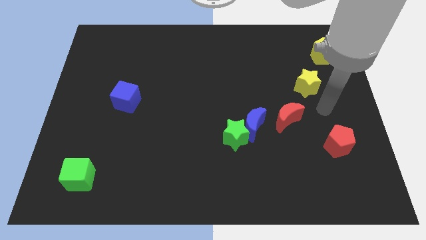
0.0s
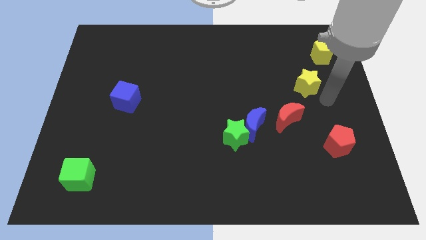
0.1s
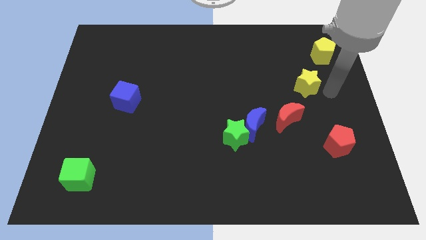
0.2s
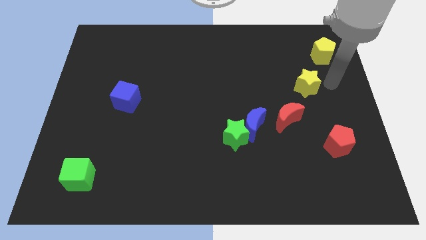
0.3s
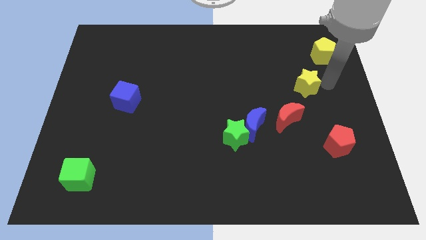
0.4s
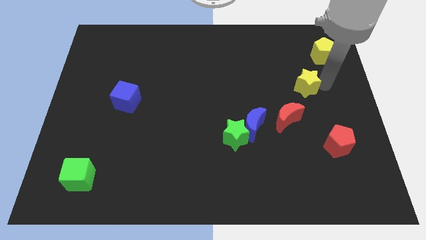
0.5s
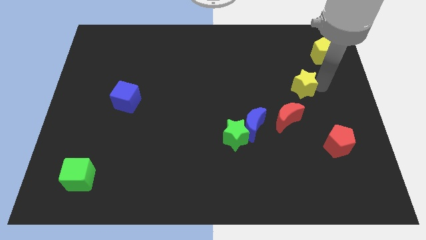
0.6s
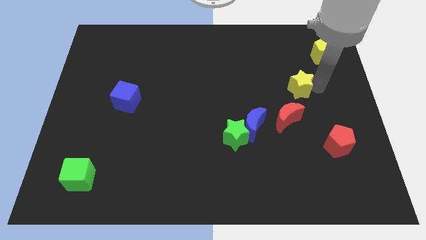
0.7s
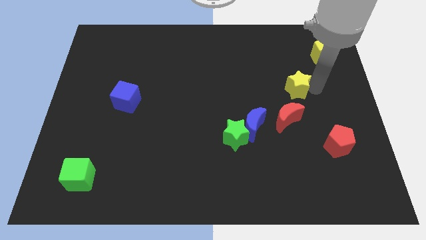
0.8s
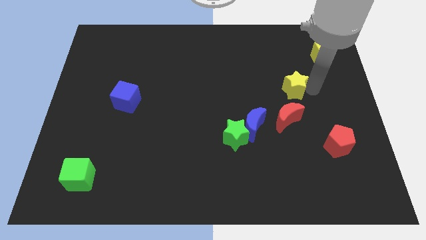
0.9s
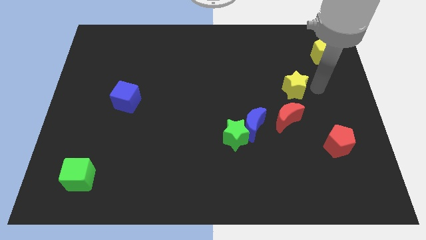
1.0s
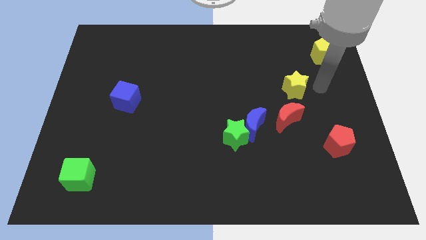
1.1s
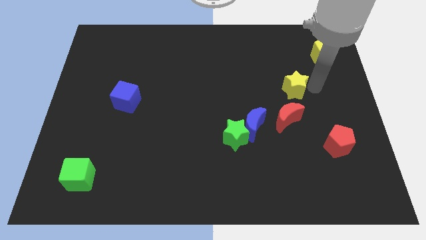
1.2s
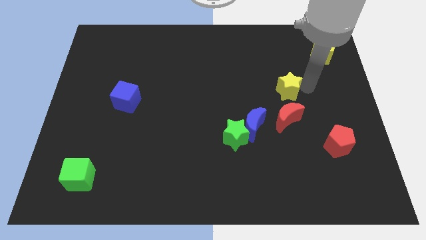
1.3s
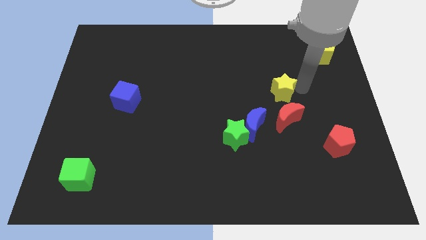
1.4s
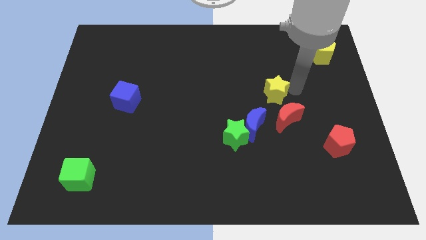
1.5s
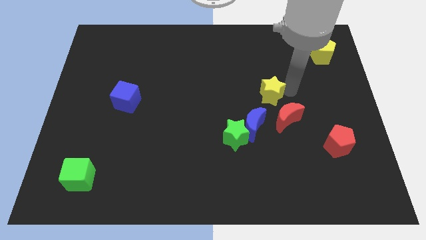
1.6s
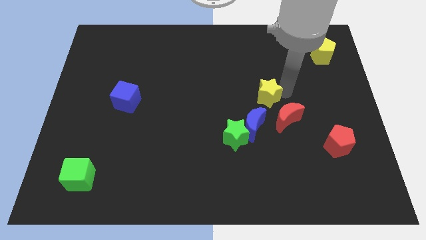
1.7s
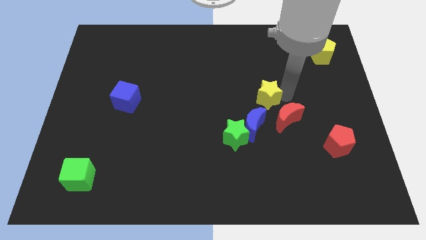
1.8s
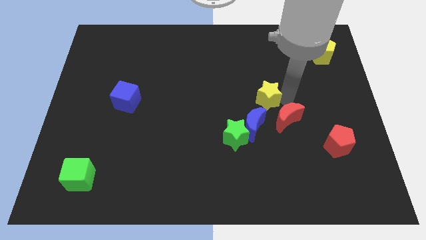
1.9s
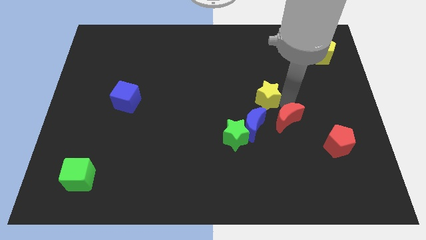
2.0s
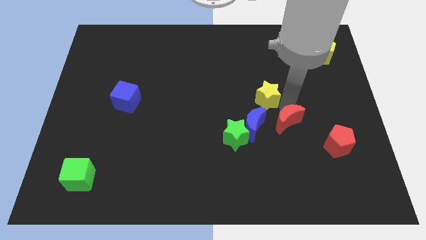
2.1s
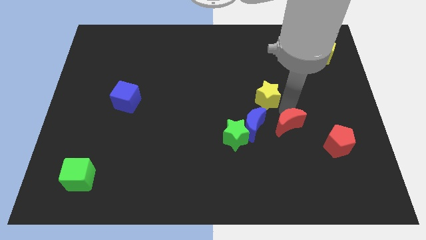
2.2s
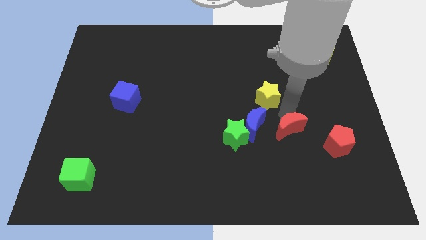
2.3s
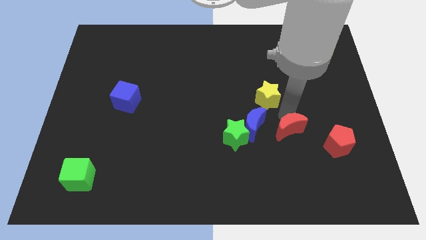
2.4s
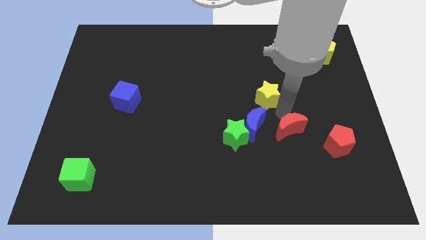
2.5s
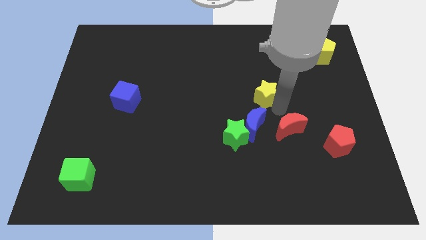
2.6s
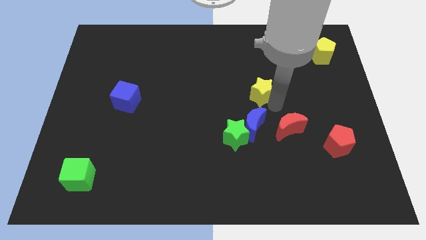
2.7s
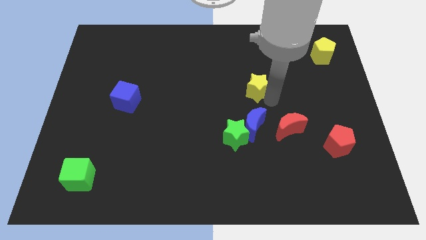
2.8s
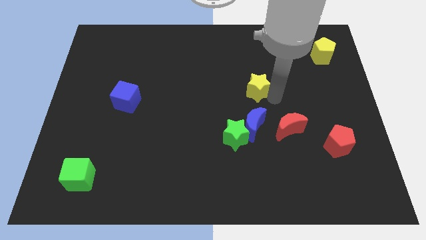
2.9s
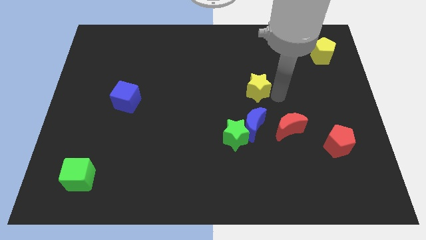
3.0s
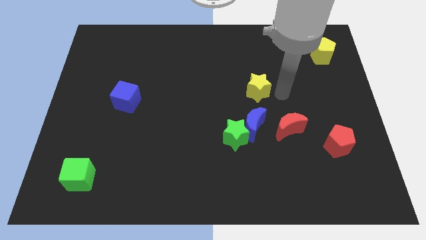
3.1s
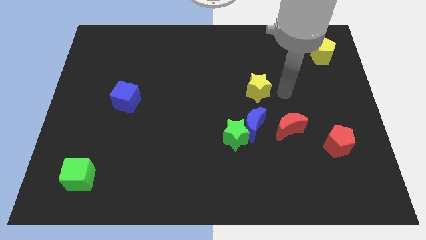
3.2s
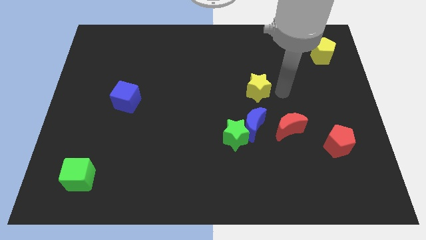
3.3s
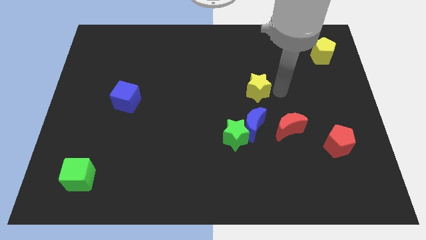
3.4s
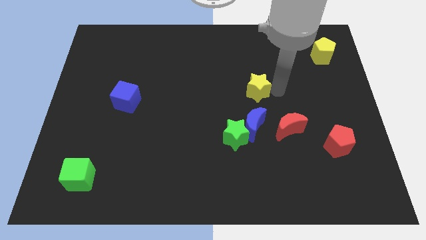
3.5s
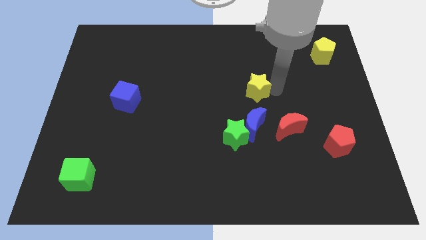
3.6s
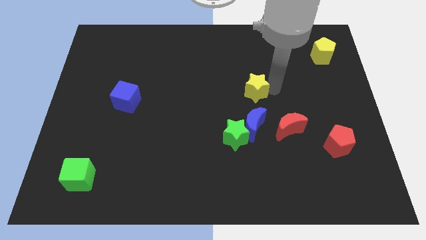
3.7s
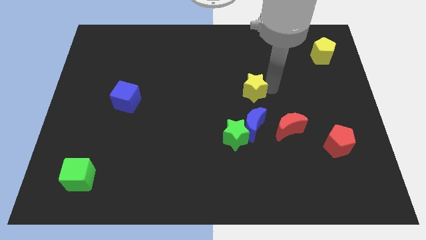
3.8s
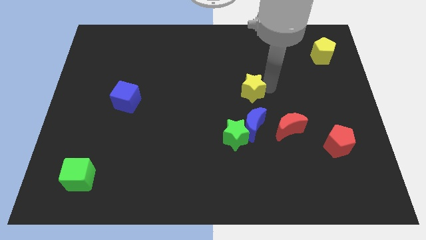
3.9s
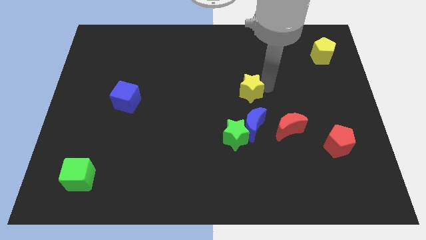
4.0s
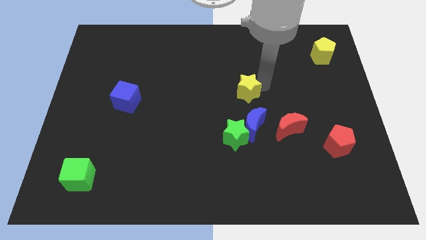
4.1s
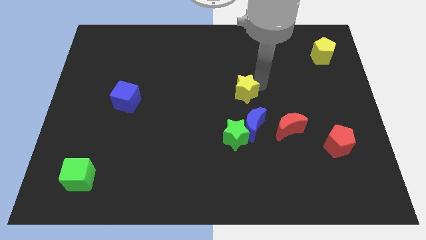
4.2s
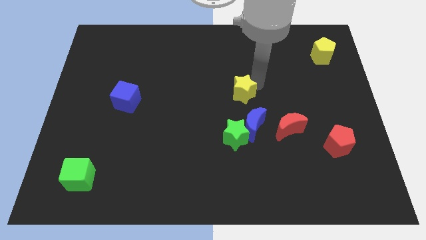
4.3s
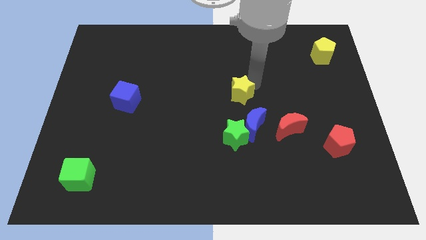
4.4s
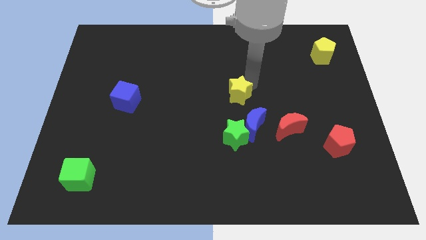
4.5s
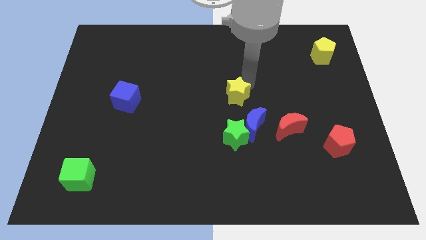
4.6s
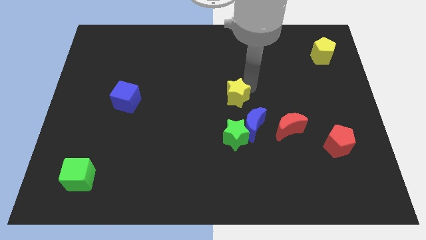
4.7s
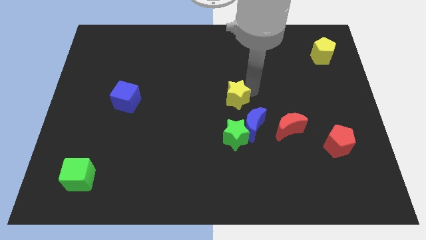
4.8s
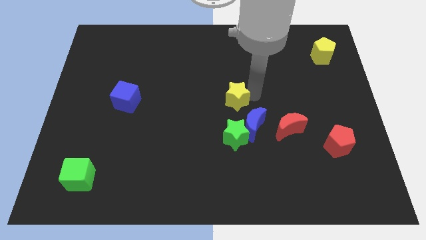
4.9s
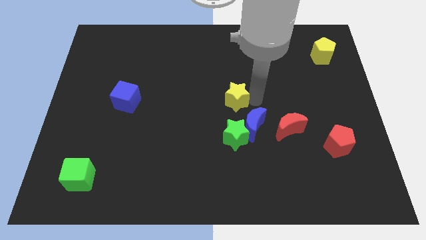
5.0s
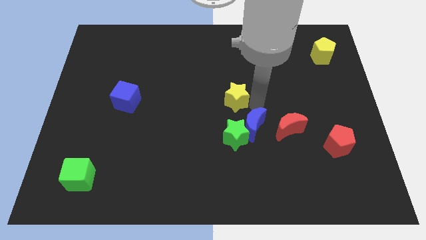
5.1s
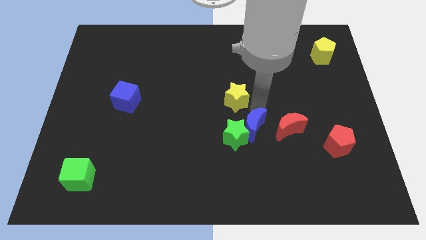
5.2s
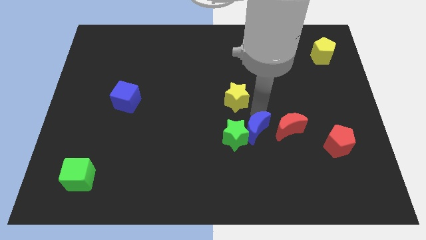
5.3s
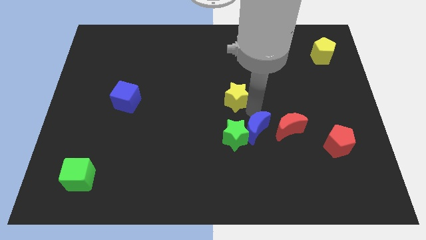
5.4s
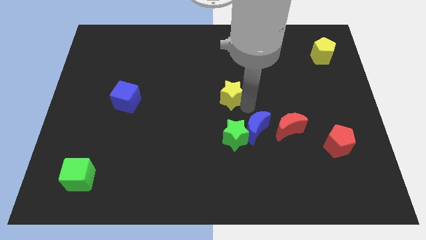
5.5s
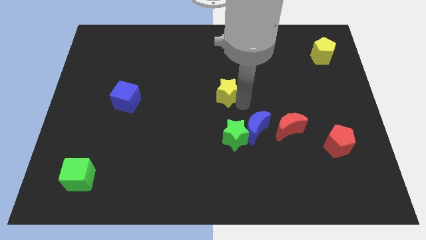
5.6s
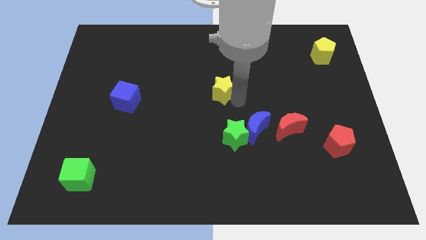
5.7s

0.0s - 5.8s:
move the yellow star to the left

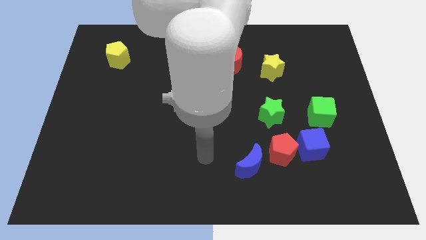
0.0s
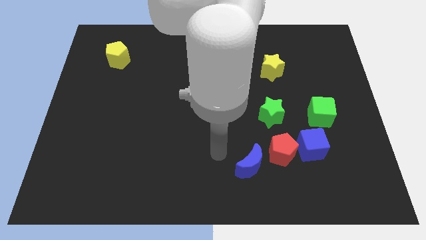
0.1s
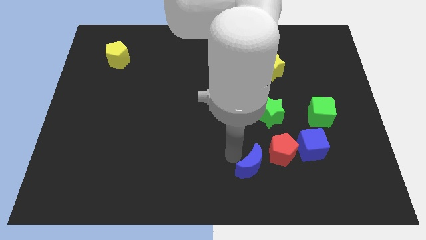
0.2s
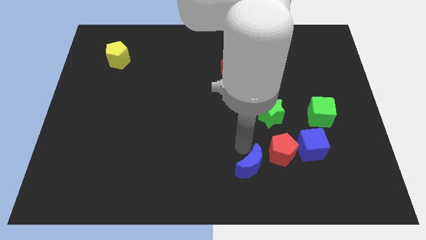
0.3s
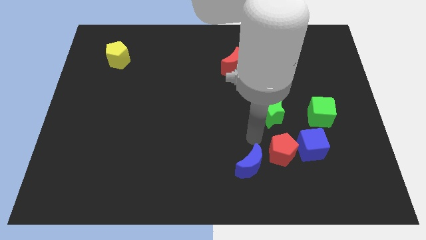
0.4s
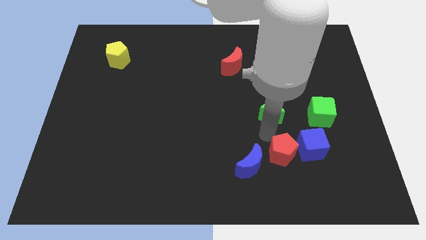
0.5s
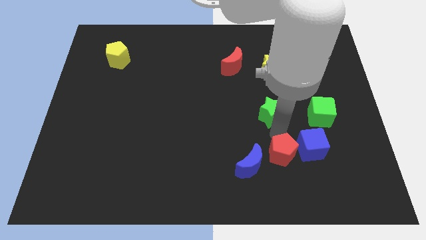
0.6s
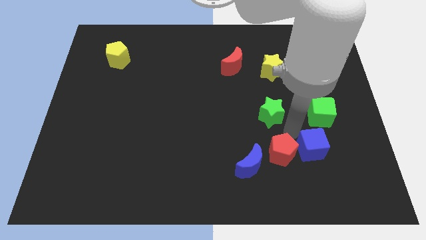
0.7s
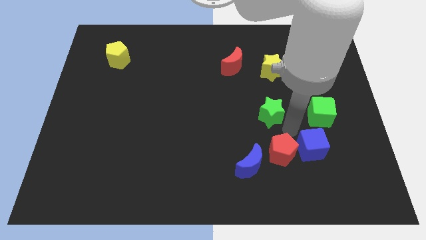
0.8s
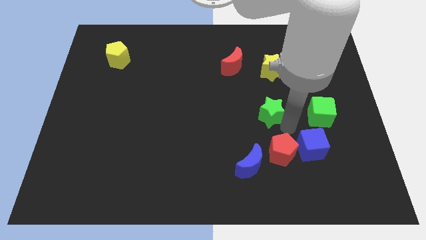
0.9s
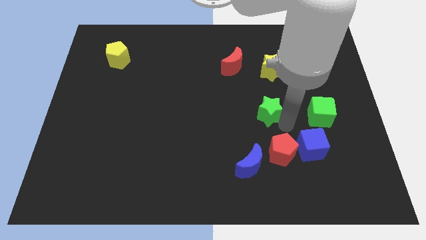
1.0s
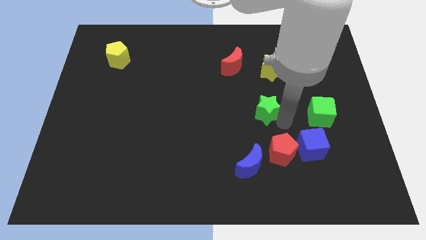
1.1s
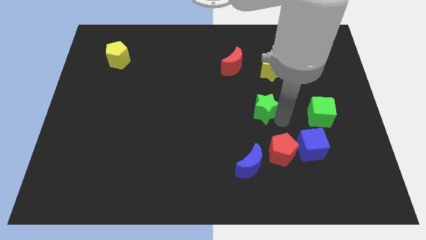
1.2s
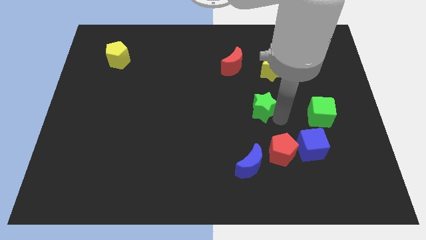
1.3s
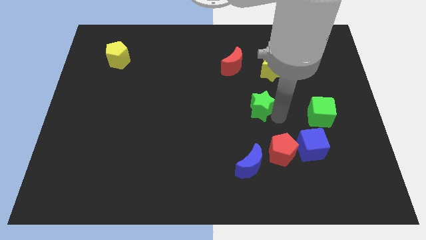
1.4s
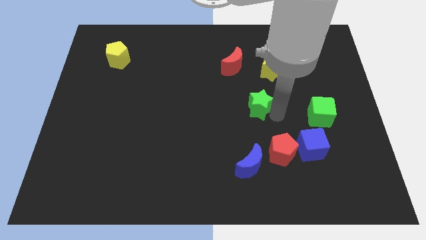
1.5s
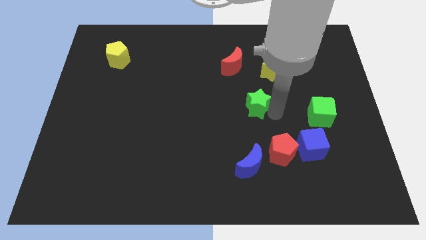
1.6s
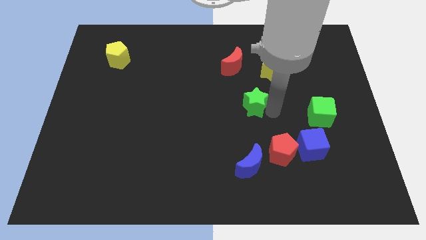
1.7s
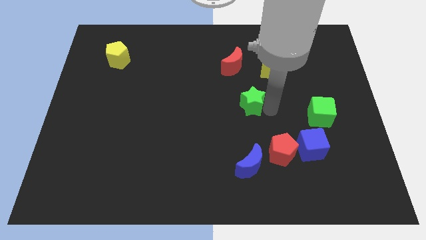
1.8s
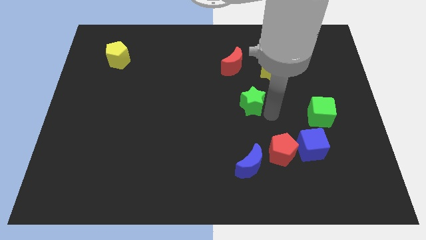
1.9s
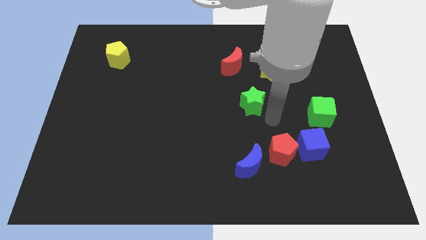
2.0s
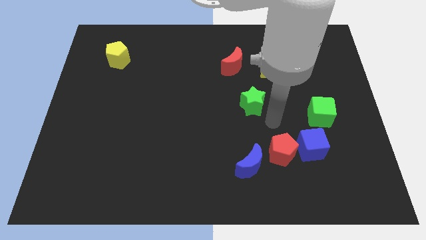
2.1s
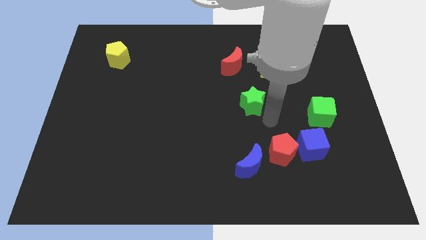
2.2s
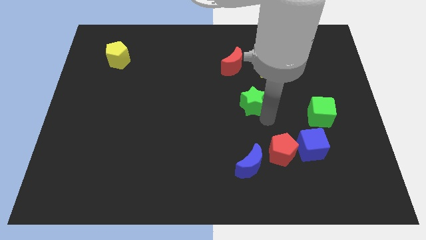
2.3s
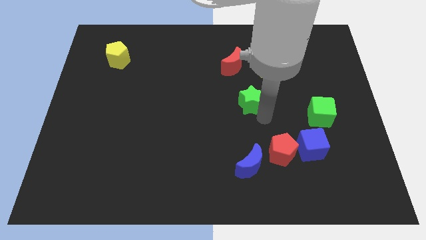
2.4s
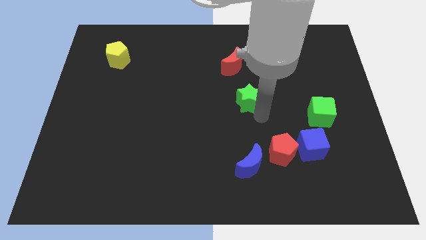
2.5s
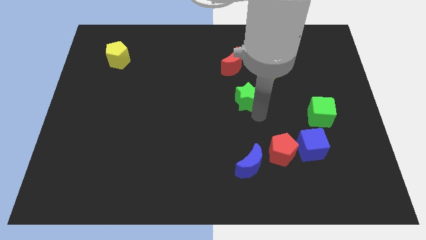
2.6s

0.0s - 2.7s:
move the green star a little up and then left
